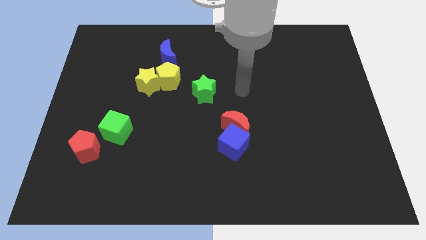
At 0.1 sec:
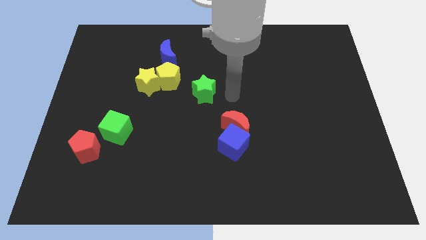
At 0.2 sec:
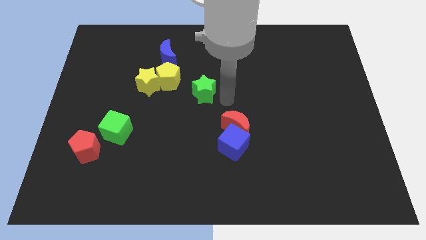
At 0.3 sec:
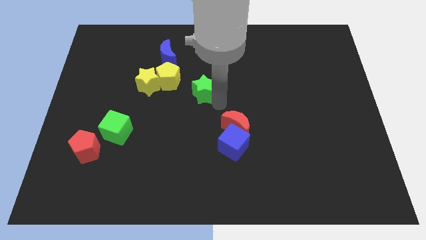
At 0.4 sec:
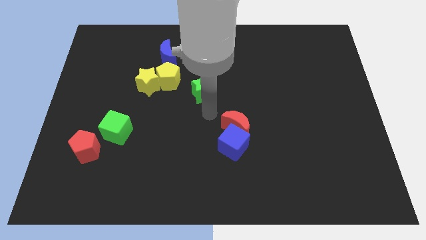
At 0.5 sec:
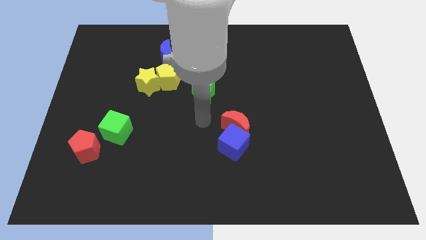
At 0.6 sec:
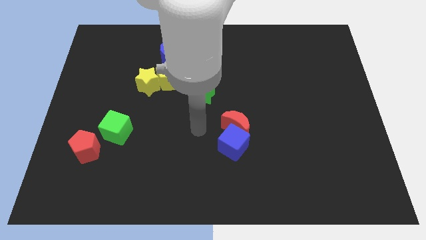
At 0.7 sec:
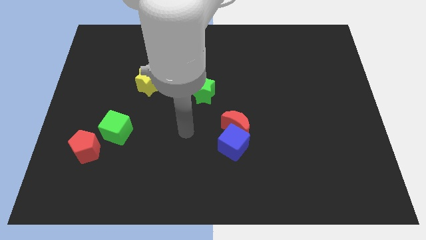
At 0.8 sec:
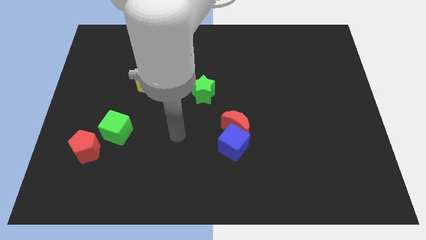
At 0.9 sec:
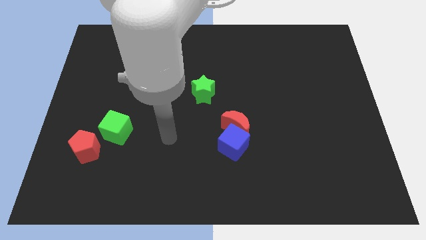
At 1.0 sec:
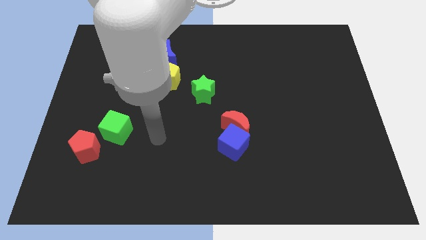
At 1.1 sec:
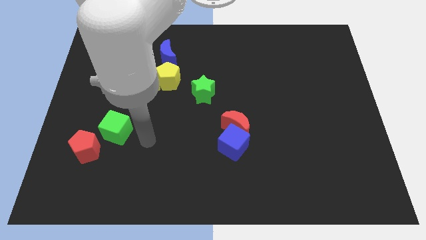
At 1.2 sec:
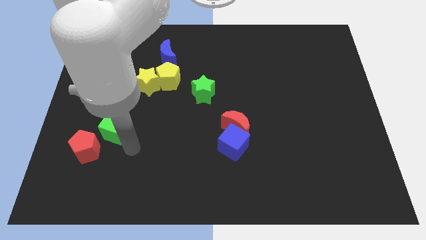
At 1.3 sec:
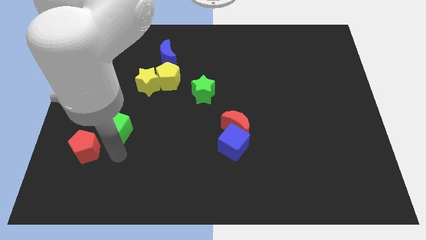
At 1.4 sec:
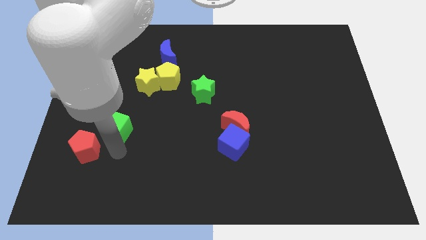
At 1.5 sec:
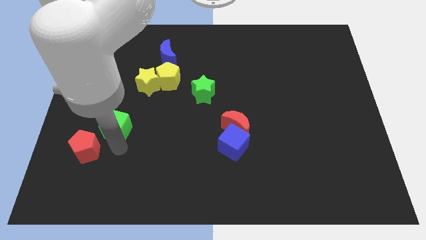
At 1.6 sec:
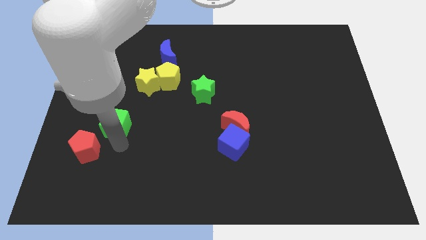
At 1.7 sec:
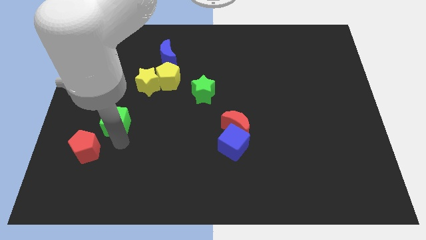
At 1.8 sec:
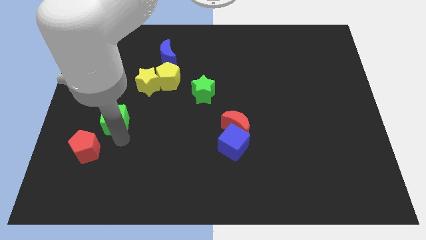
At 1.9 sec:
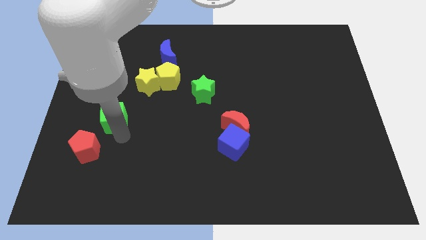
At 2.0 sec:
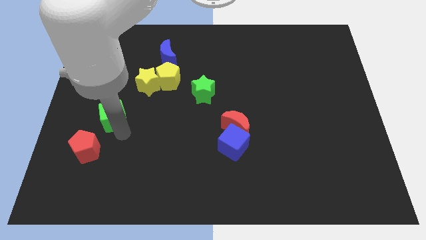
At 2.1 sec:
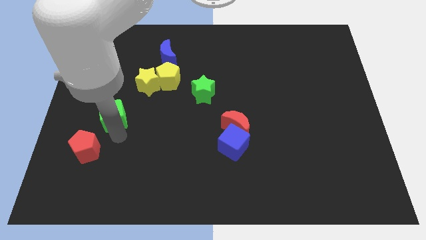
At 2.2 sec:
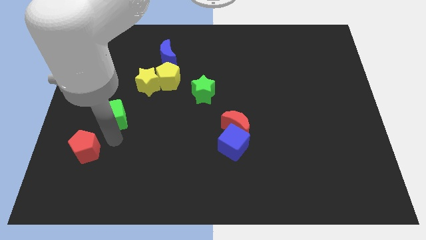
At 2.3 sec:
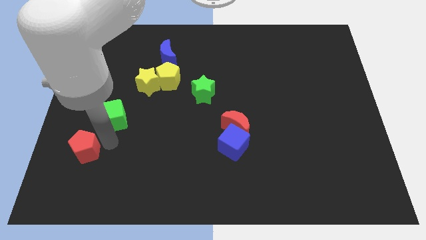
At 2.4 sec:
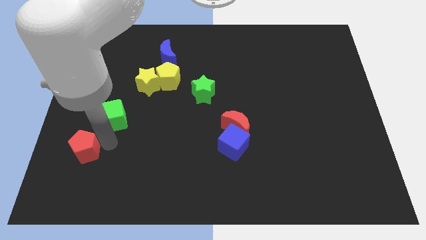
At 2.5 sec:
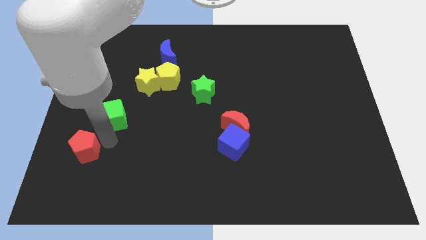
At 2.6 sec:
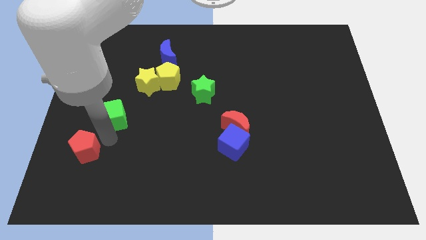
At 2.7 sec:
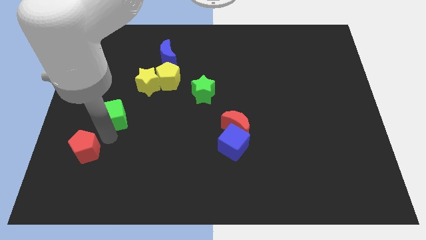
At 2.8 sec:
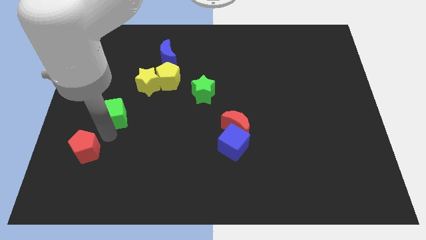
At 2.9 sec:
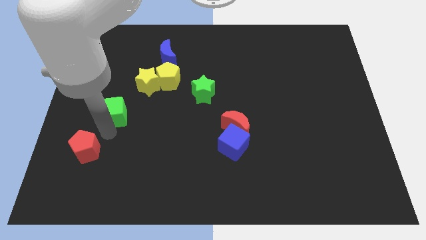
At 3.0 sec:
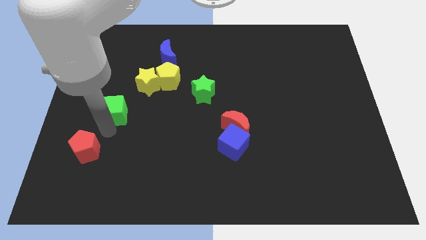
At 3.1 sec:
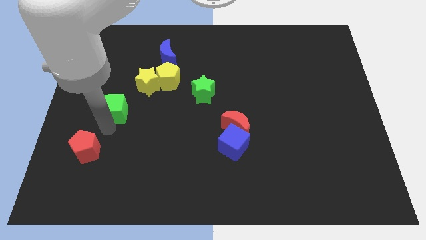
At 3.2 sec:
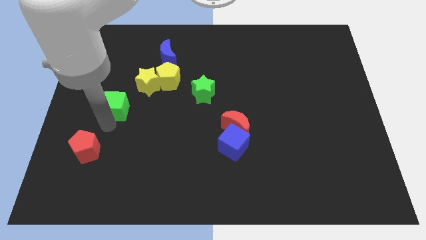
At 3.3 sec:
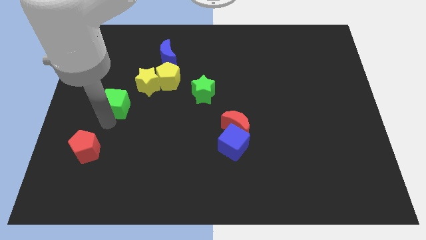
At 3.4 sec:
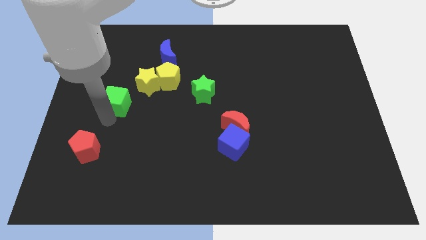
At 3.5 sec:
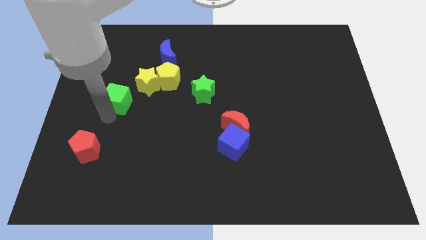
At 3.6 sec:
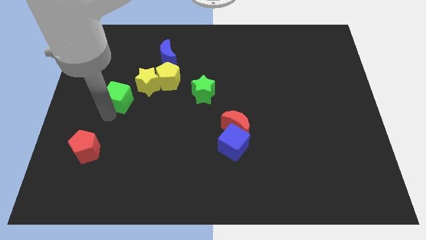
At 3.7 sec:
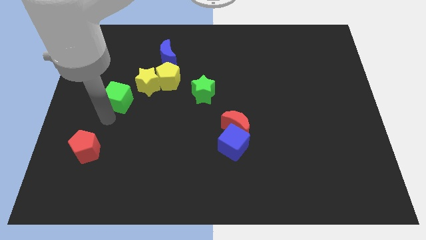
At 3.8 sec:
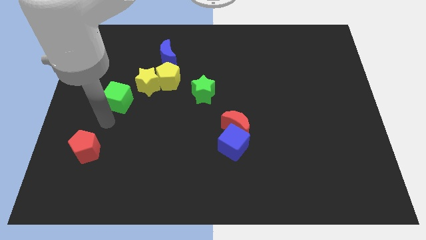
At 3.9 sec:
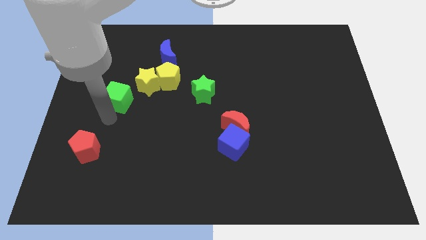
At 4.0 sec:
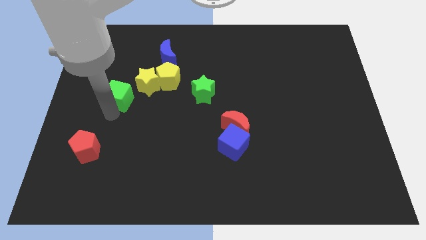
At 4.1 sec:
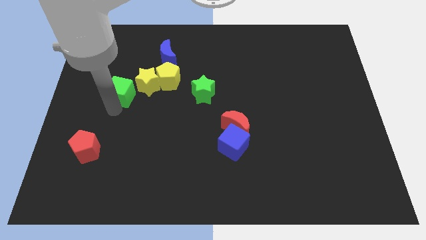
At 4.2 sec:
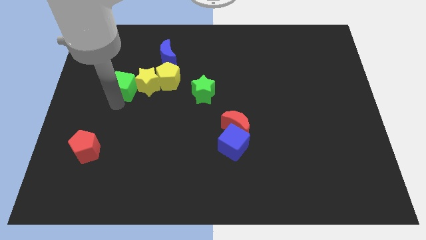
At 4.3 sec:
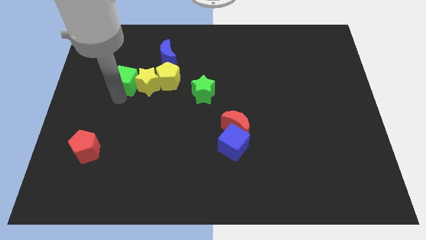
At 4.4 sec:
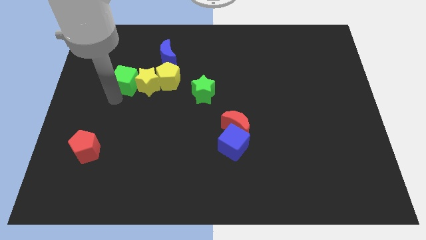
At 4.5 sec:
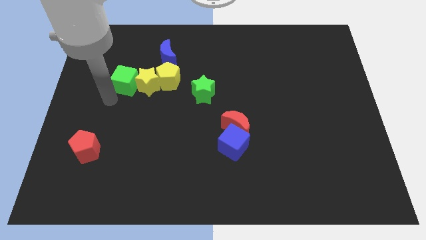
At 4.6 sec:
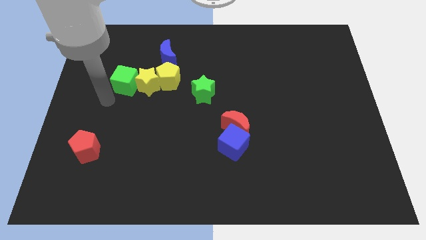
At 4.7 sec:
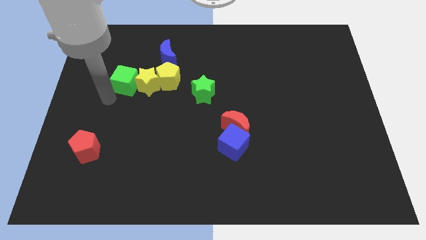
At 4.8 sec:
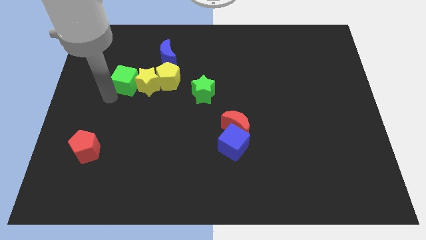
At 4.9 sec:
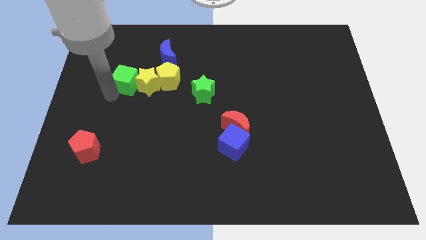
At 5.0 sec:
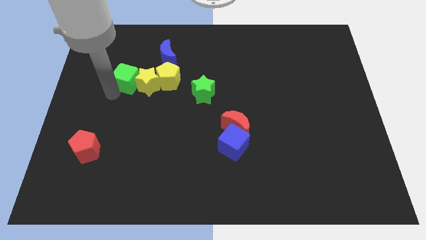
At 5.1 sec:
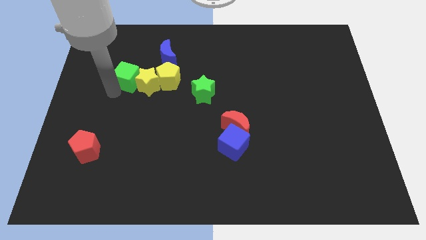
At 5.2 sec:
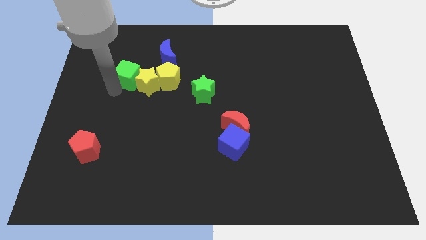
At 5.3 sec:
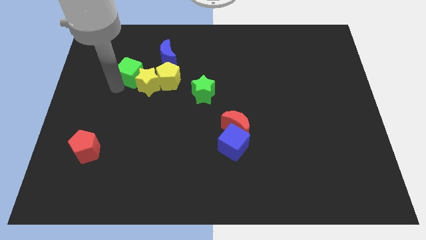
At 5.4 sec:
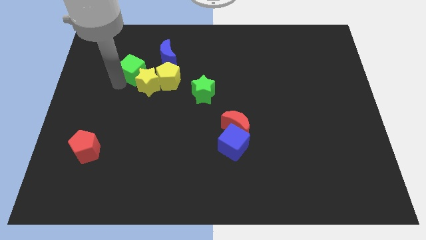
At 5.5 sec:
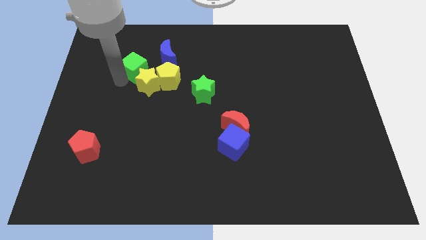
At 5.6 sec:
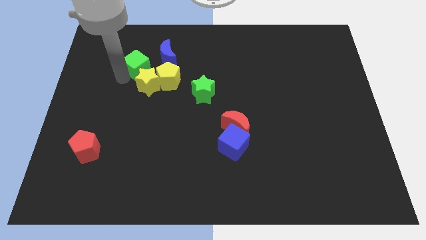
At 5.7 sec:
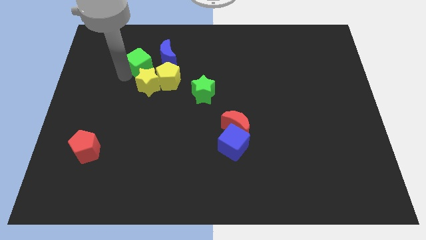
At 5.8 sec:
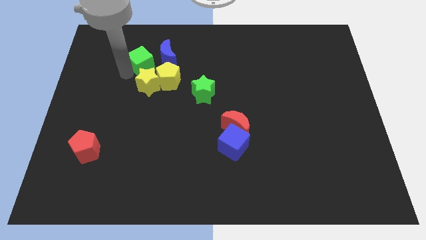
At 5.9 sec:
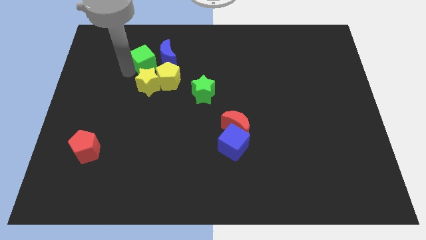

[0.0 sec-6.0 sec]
slide the green cube to the blue moon

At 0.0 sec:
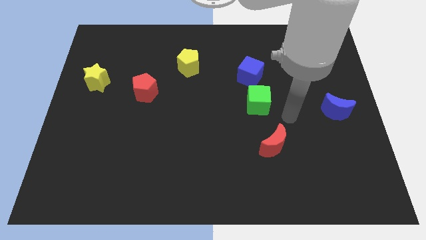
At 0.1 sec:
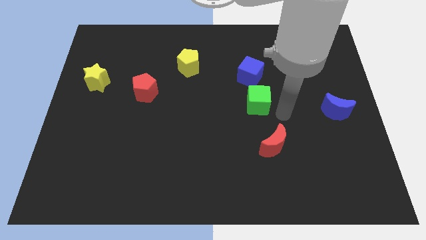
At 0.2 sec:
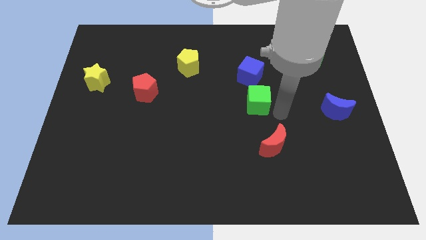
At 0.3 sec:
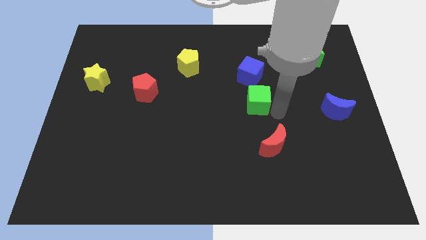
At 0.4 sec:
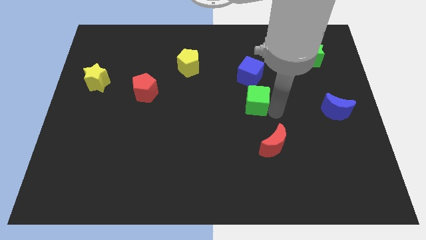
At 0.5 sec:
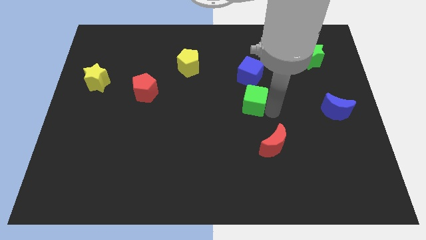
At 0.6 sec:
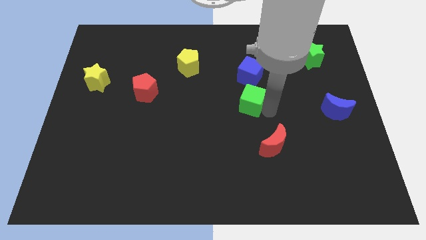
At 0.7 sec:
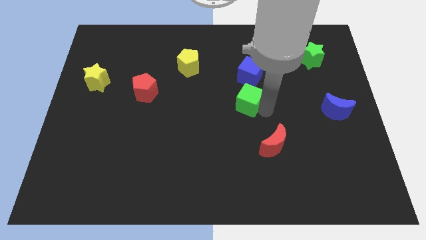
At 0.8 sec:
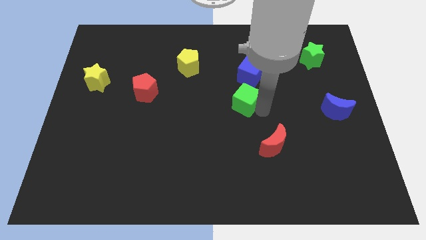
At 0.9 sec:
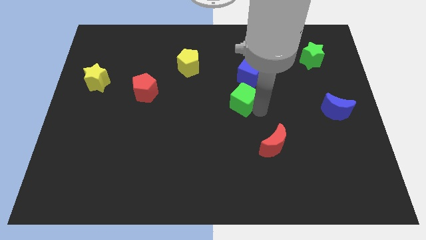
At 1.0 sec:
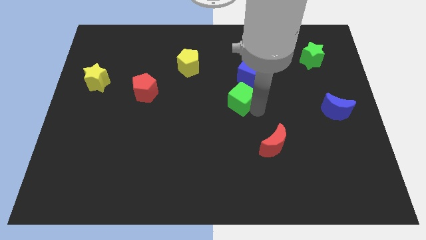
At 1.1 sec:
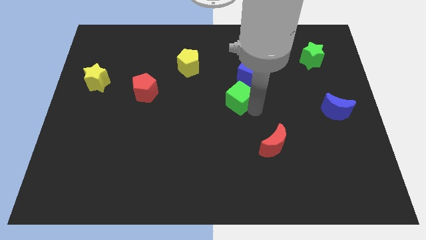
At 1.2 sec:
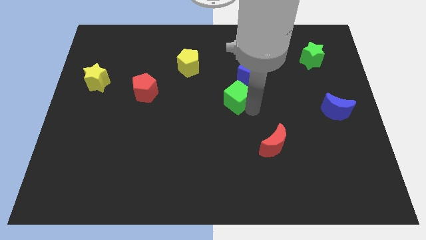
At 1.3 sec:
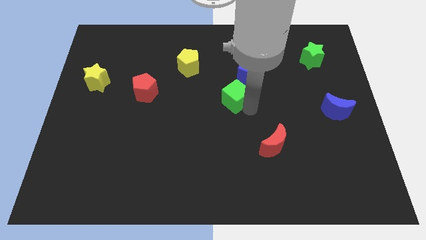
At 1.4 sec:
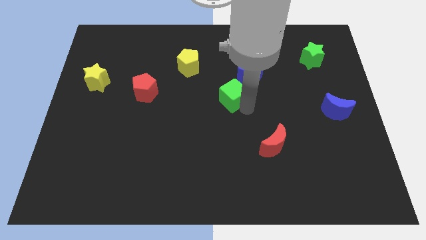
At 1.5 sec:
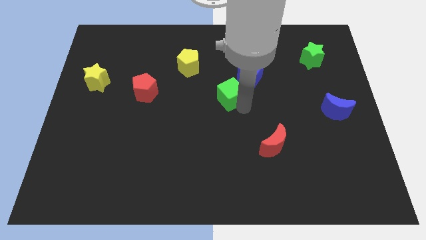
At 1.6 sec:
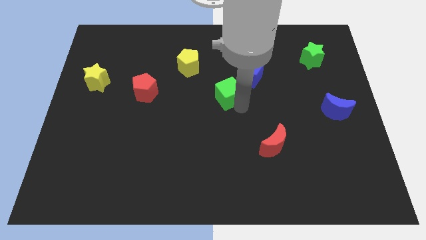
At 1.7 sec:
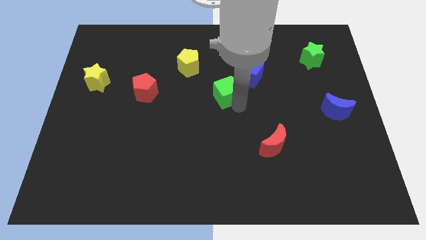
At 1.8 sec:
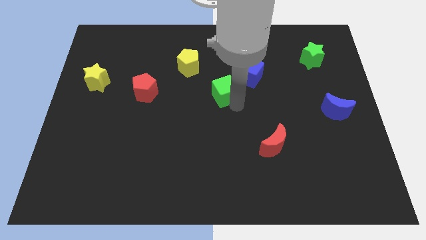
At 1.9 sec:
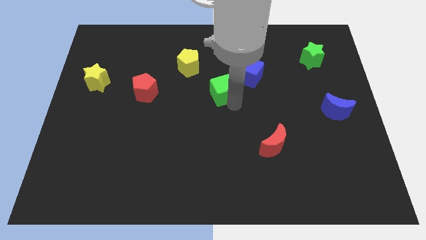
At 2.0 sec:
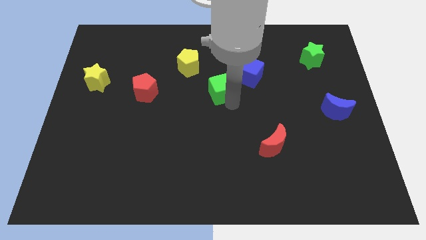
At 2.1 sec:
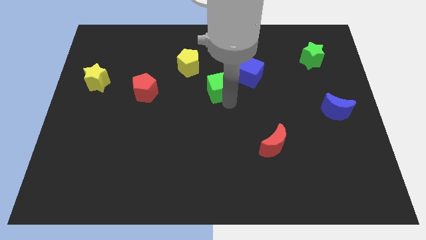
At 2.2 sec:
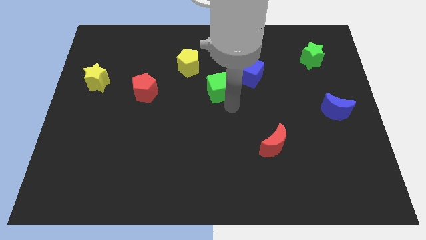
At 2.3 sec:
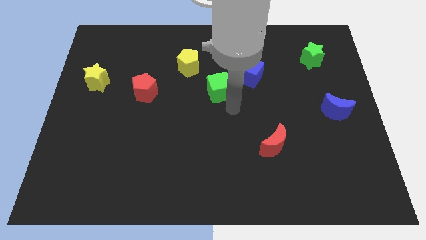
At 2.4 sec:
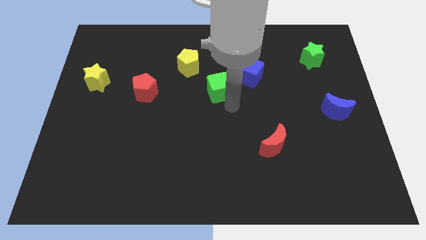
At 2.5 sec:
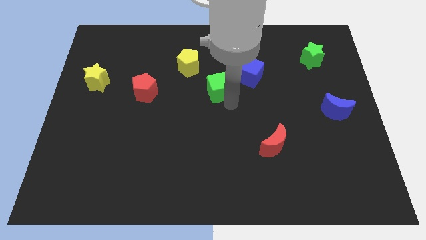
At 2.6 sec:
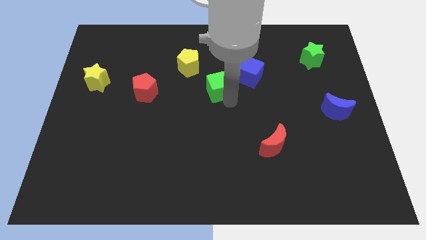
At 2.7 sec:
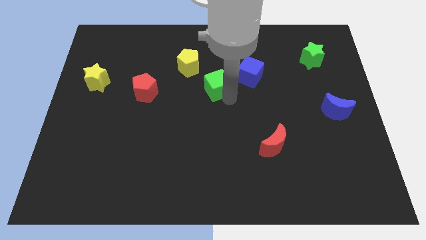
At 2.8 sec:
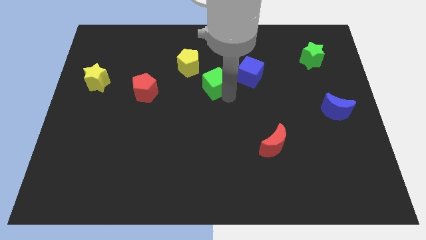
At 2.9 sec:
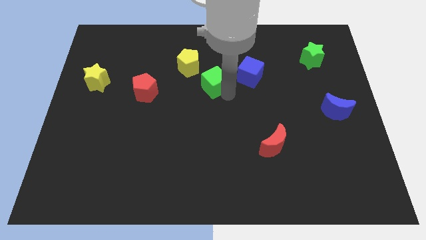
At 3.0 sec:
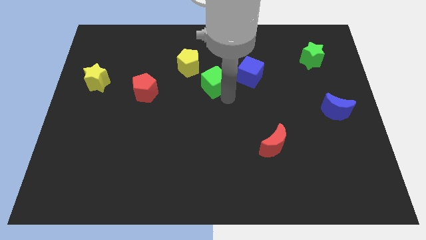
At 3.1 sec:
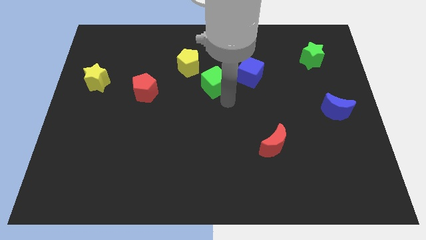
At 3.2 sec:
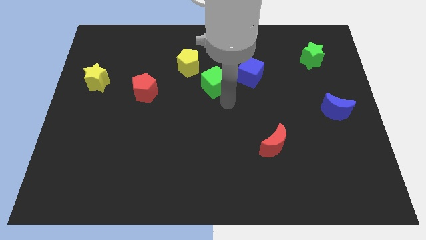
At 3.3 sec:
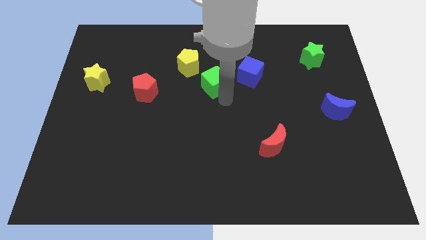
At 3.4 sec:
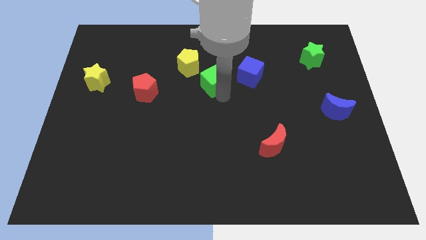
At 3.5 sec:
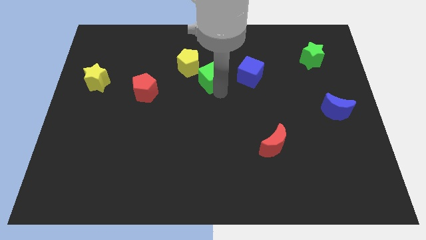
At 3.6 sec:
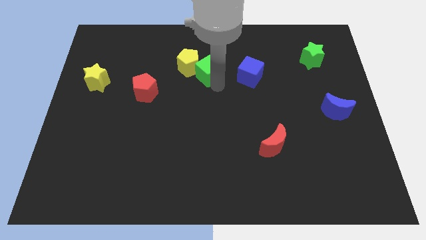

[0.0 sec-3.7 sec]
slide the green cube towards the yellow pentagon
